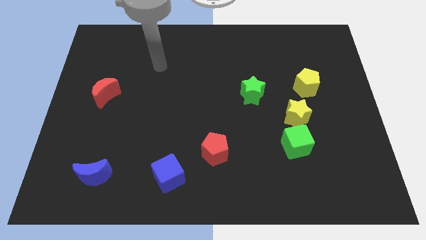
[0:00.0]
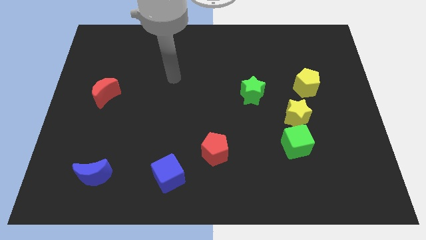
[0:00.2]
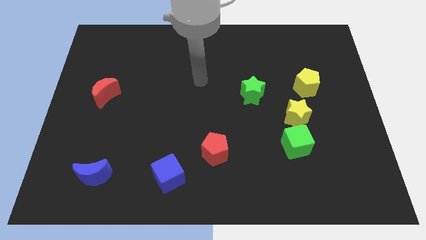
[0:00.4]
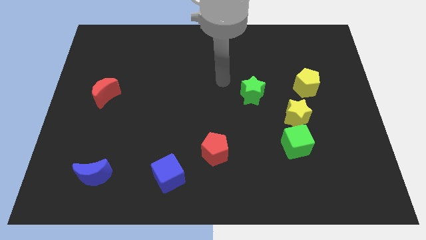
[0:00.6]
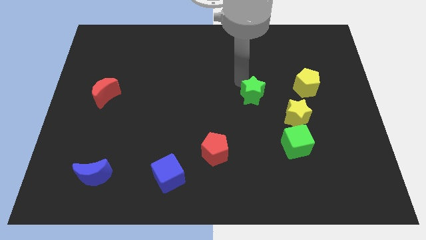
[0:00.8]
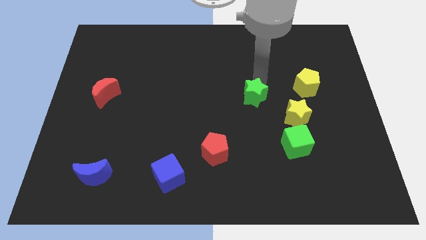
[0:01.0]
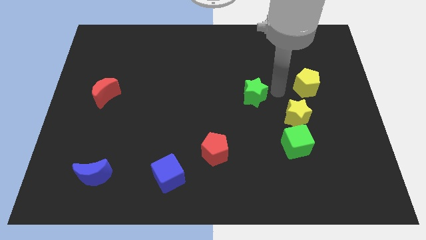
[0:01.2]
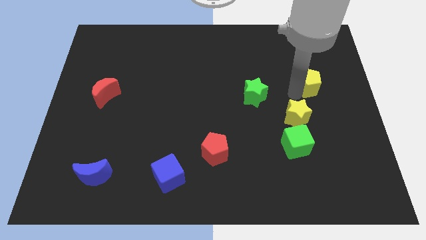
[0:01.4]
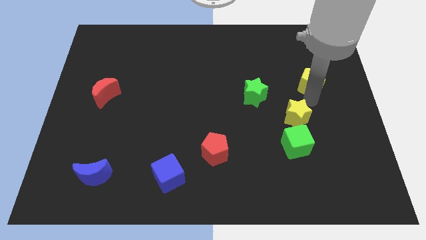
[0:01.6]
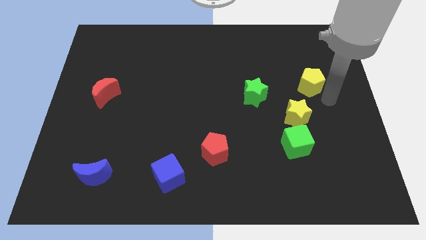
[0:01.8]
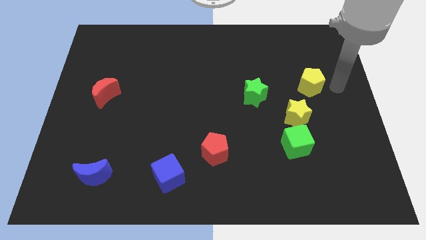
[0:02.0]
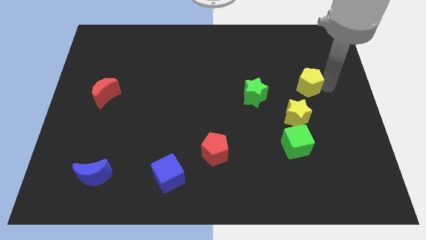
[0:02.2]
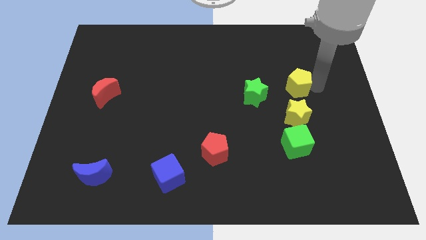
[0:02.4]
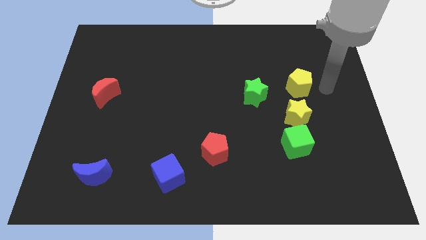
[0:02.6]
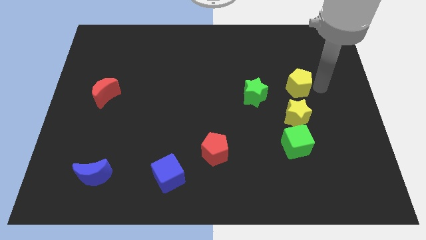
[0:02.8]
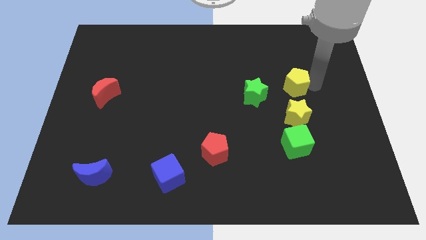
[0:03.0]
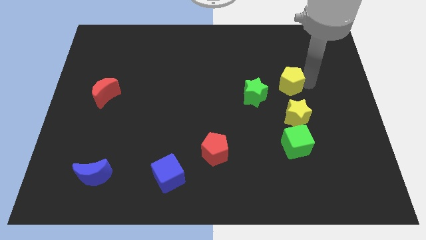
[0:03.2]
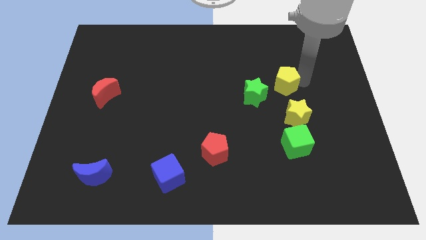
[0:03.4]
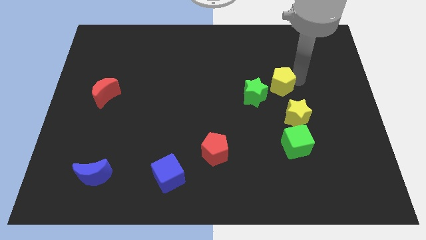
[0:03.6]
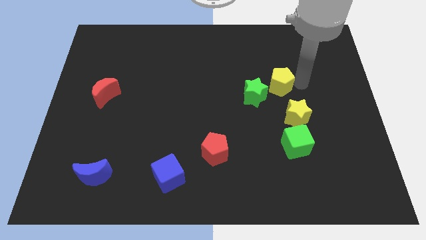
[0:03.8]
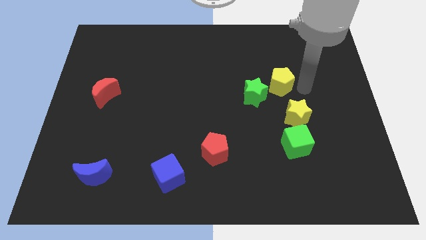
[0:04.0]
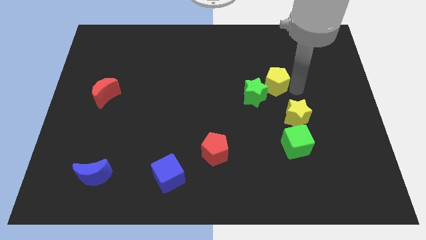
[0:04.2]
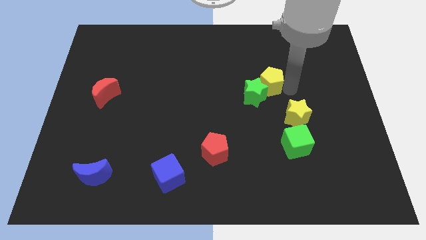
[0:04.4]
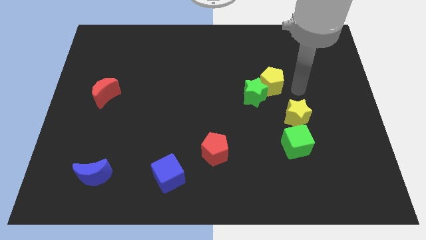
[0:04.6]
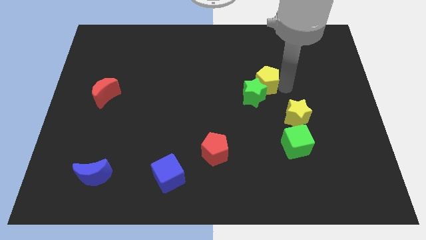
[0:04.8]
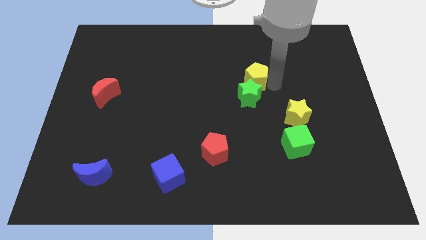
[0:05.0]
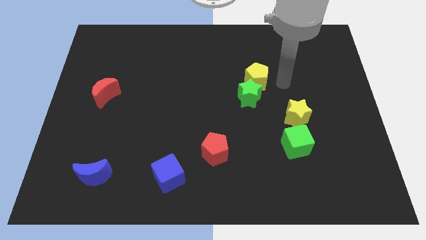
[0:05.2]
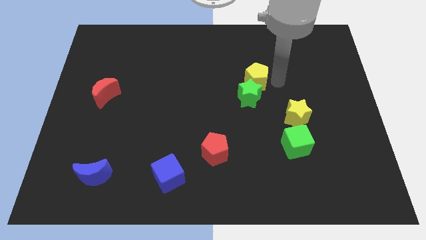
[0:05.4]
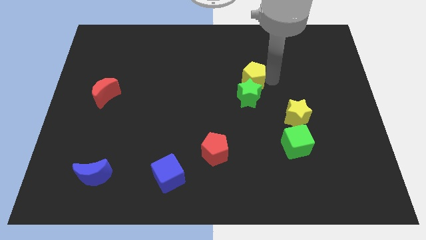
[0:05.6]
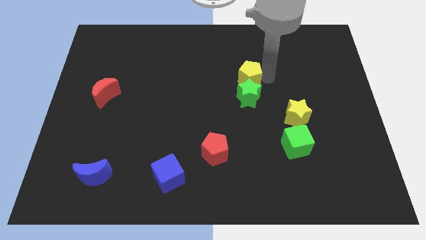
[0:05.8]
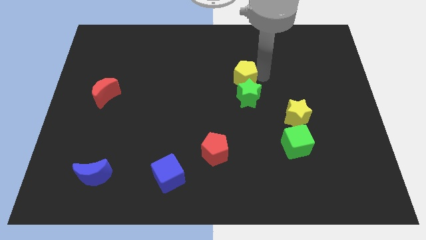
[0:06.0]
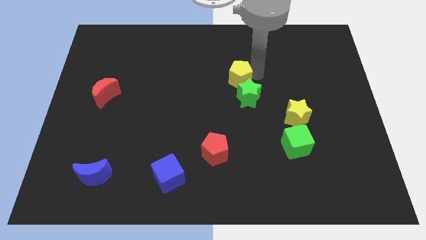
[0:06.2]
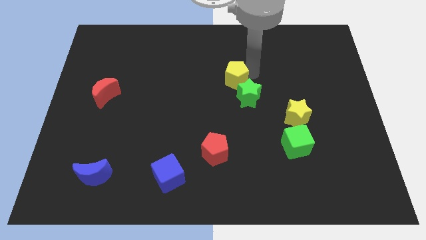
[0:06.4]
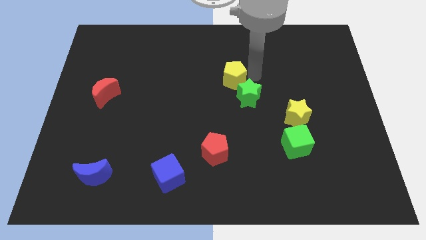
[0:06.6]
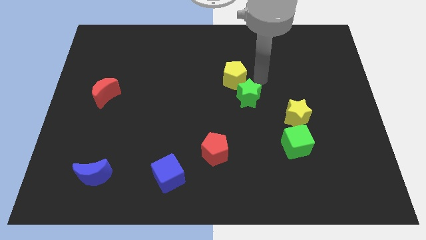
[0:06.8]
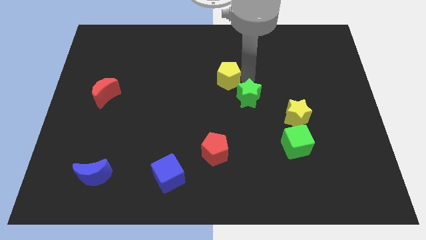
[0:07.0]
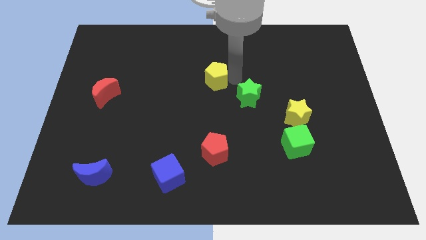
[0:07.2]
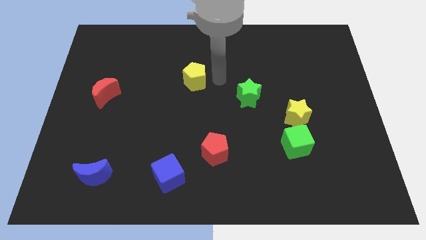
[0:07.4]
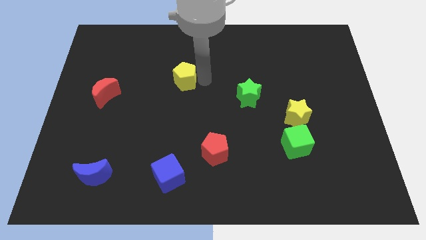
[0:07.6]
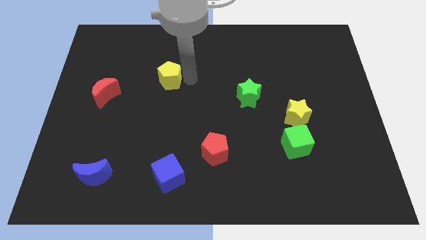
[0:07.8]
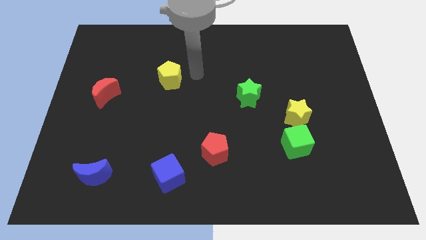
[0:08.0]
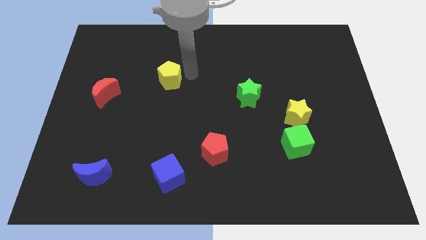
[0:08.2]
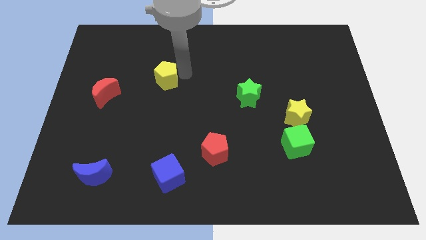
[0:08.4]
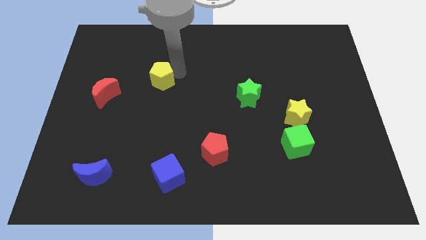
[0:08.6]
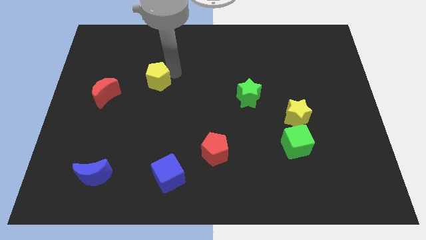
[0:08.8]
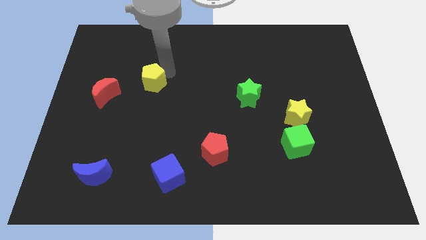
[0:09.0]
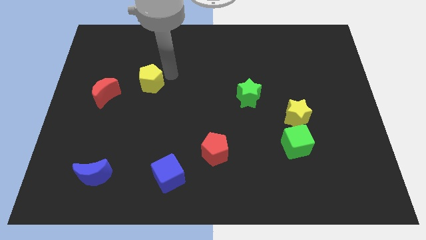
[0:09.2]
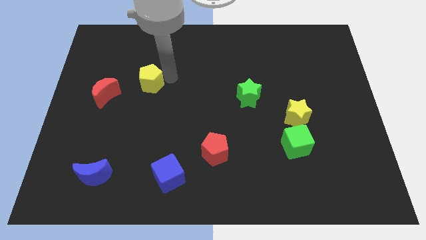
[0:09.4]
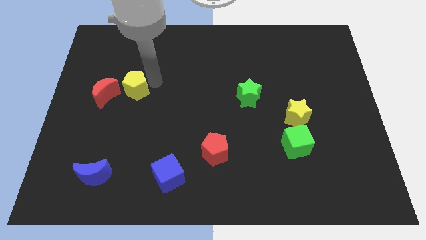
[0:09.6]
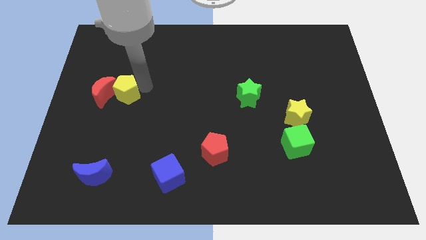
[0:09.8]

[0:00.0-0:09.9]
slide the yellow pentagon to the red moon

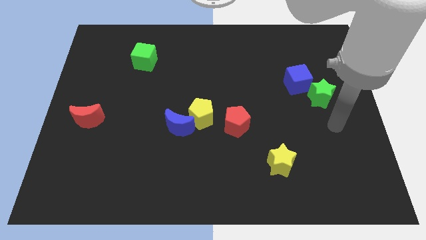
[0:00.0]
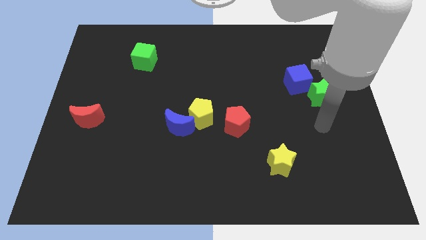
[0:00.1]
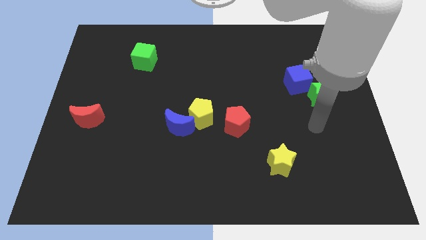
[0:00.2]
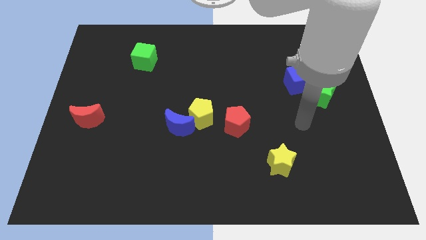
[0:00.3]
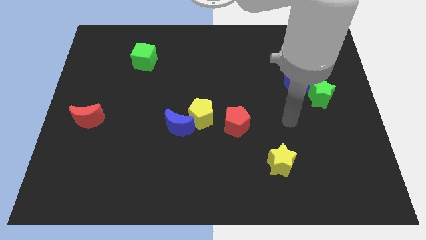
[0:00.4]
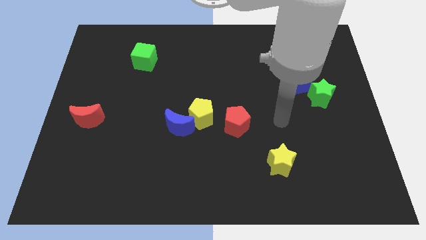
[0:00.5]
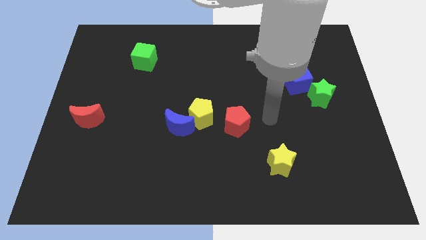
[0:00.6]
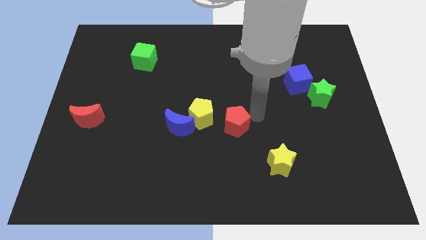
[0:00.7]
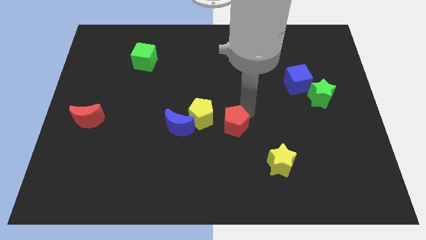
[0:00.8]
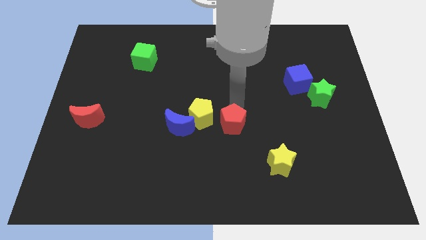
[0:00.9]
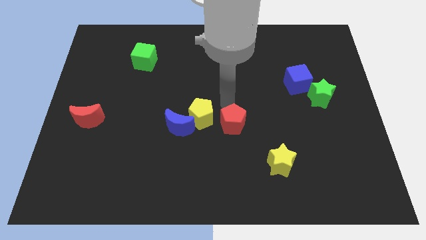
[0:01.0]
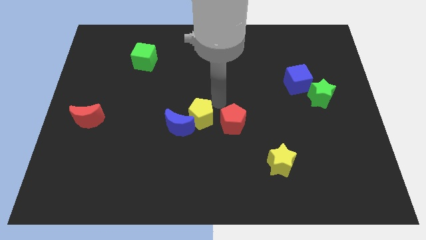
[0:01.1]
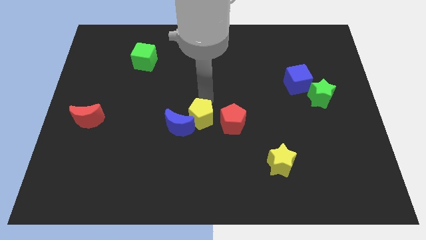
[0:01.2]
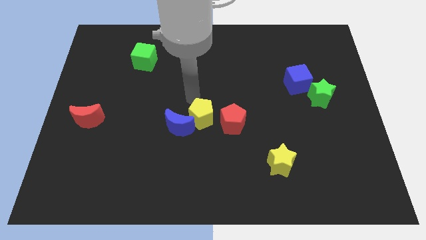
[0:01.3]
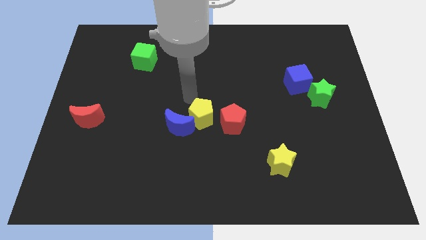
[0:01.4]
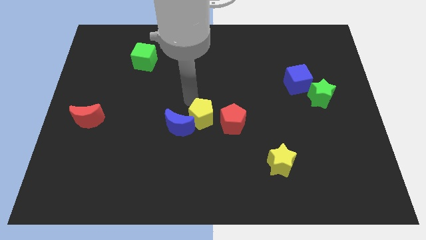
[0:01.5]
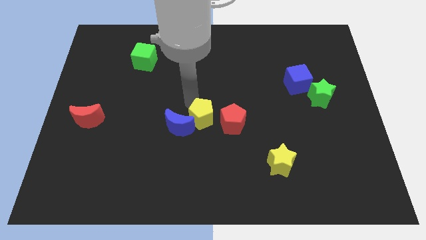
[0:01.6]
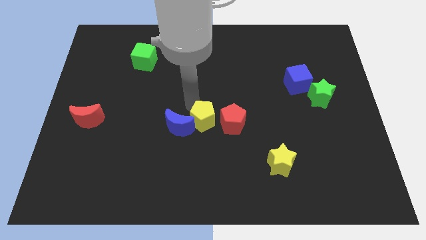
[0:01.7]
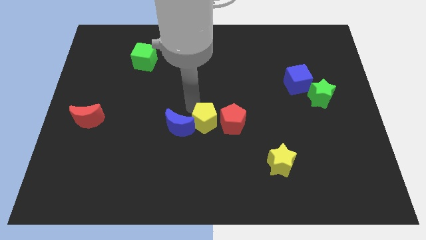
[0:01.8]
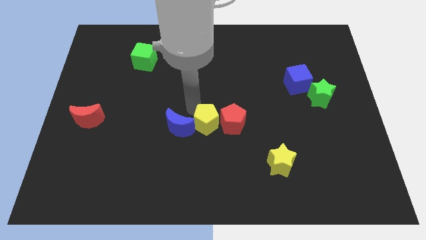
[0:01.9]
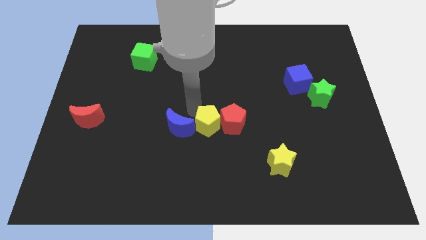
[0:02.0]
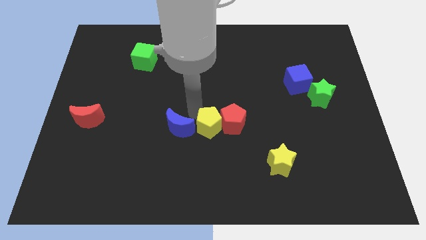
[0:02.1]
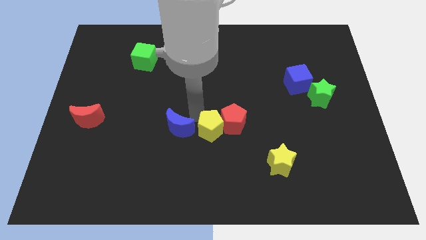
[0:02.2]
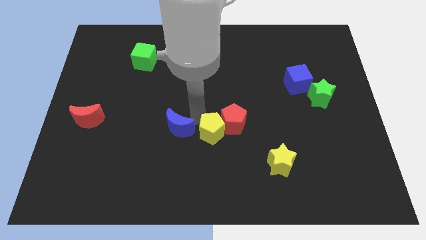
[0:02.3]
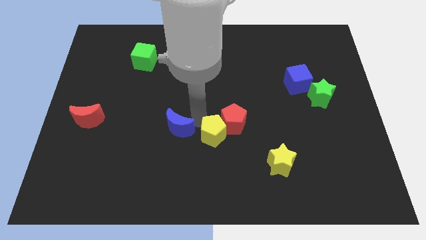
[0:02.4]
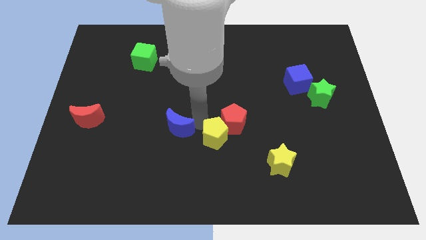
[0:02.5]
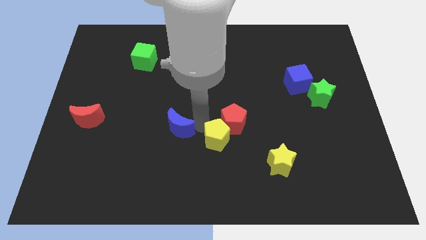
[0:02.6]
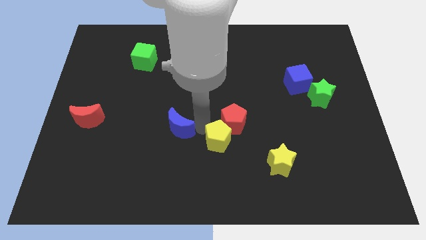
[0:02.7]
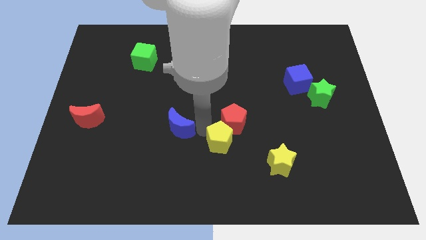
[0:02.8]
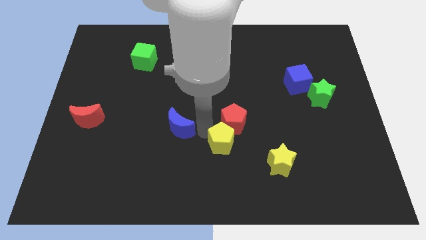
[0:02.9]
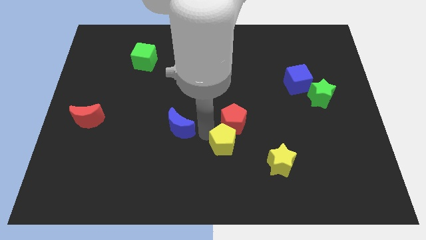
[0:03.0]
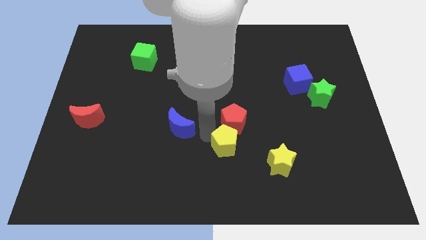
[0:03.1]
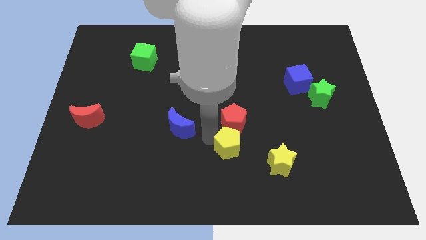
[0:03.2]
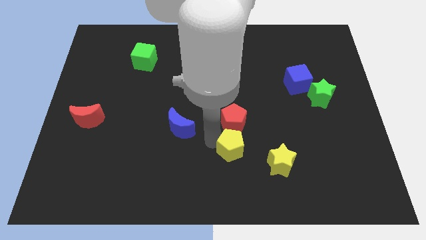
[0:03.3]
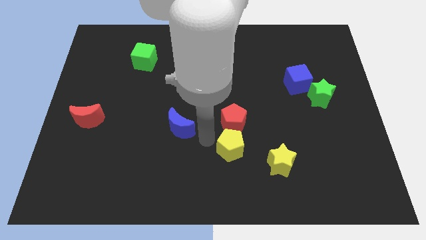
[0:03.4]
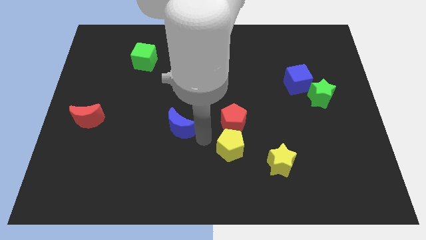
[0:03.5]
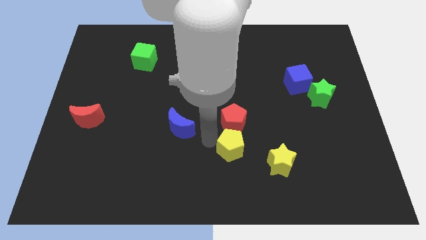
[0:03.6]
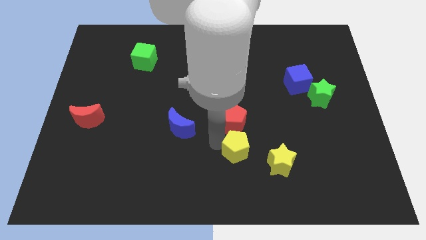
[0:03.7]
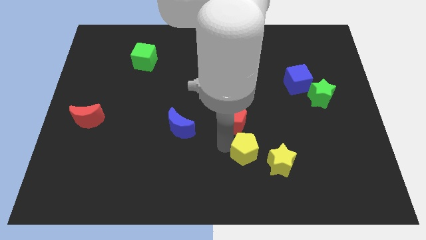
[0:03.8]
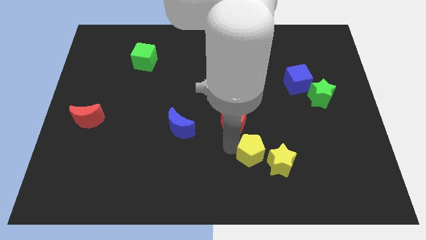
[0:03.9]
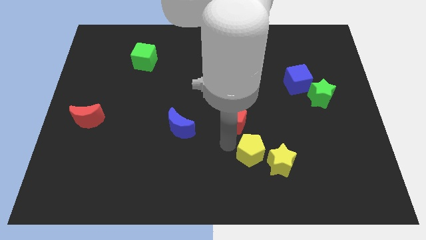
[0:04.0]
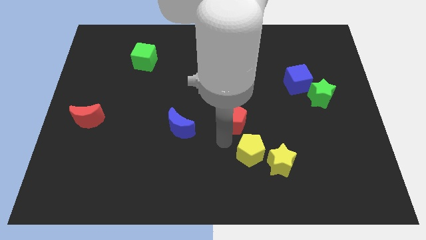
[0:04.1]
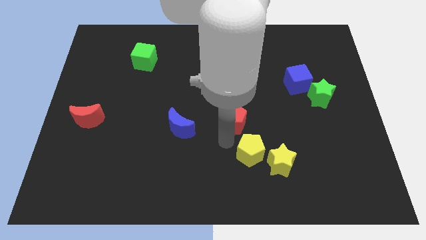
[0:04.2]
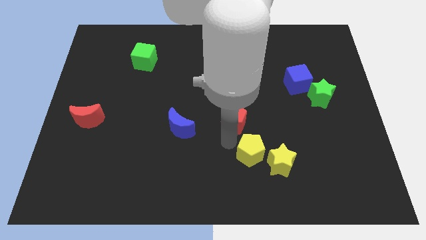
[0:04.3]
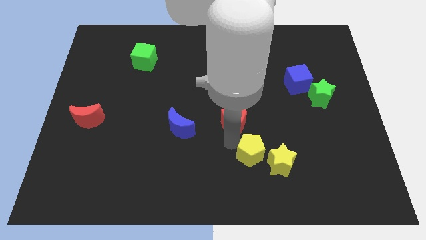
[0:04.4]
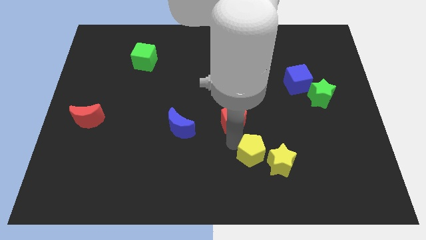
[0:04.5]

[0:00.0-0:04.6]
slide the yellow pentagon next to the yellow star
